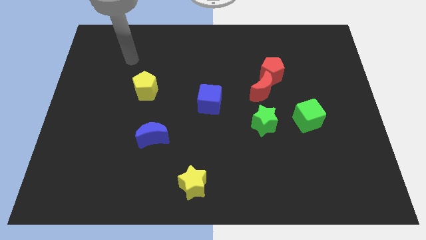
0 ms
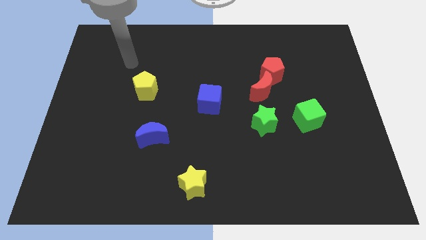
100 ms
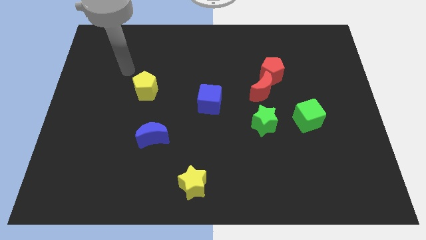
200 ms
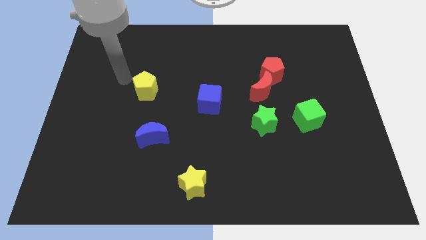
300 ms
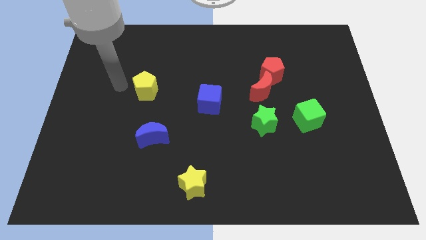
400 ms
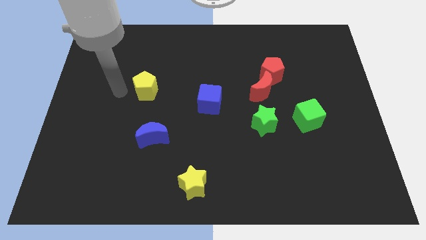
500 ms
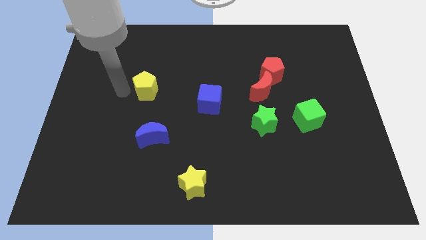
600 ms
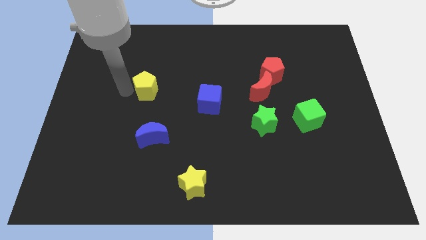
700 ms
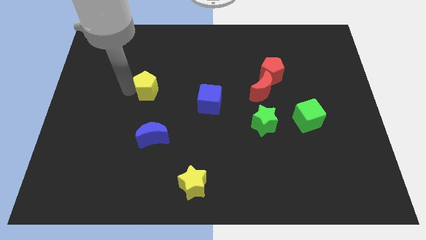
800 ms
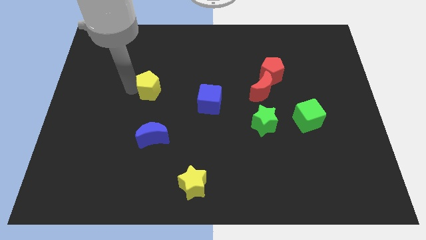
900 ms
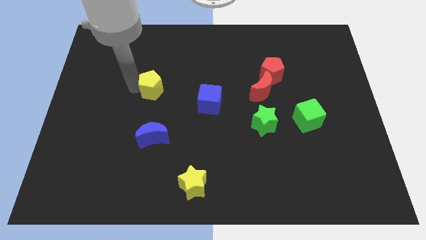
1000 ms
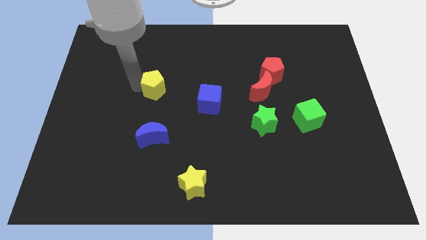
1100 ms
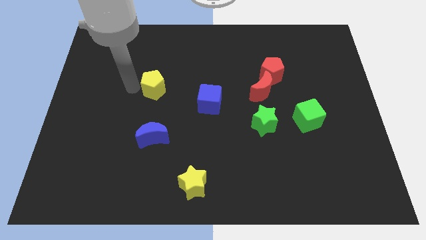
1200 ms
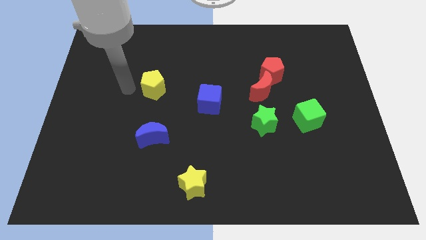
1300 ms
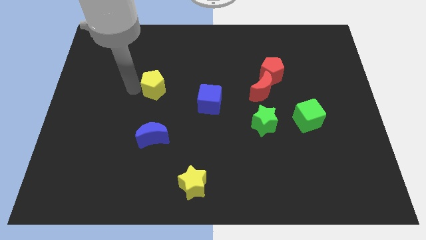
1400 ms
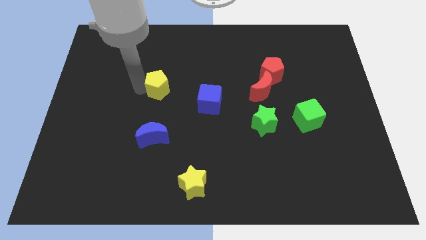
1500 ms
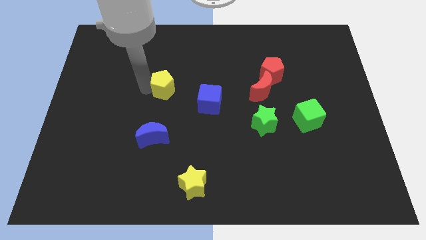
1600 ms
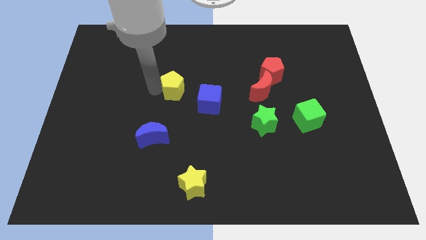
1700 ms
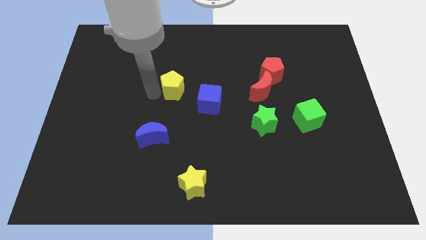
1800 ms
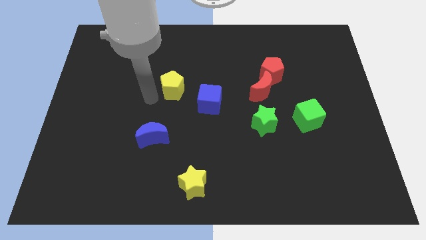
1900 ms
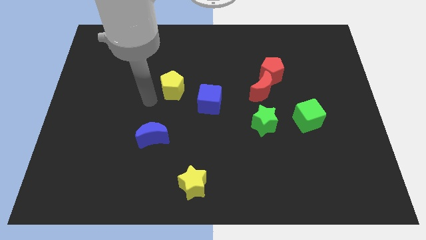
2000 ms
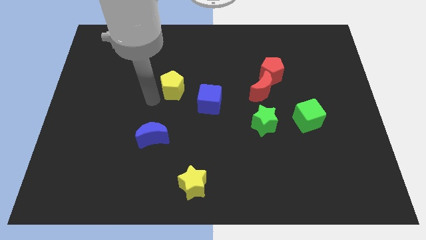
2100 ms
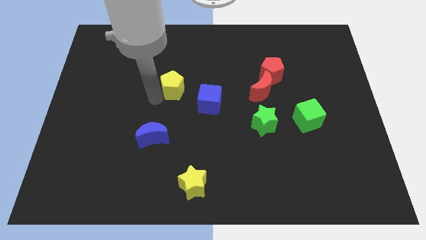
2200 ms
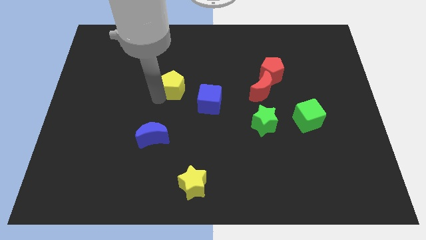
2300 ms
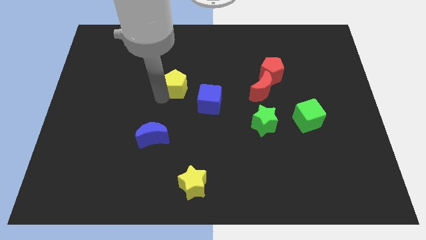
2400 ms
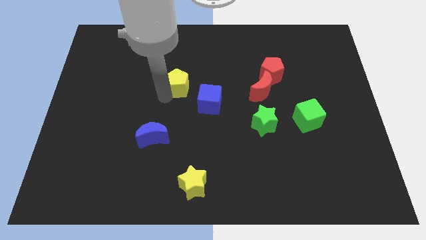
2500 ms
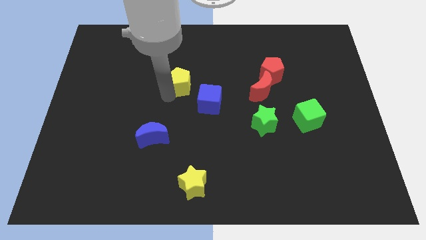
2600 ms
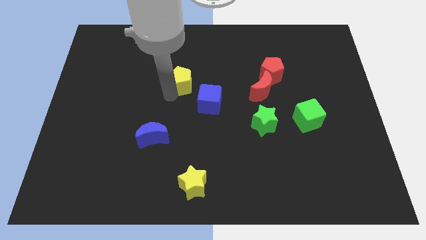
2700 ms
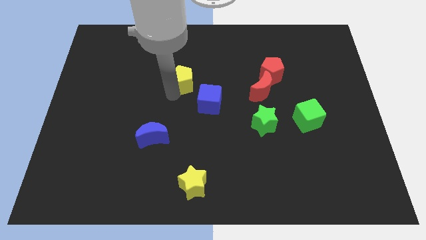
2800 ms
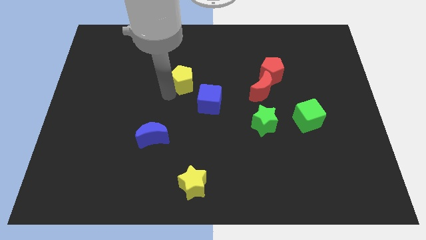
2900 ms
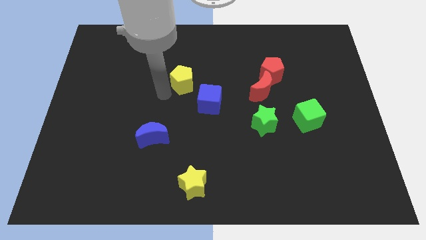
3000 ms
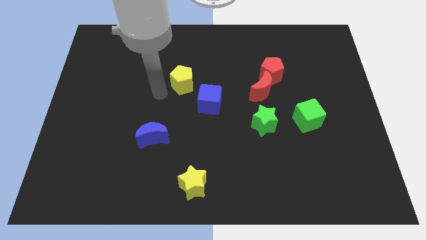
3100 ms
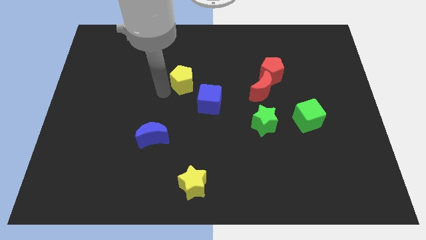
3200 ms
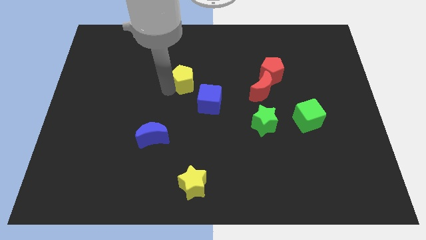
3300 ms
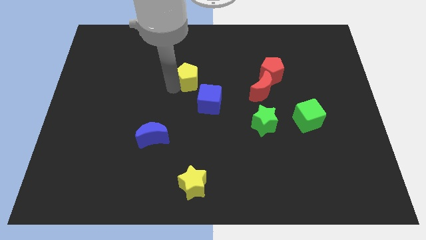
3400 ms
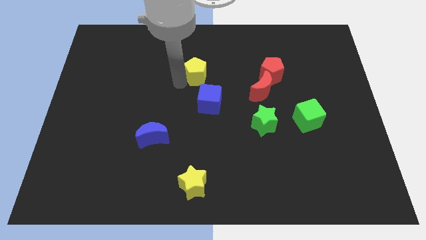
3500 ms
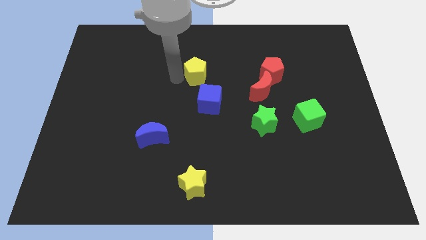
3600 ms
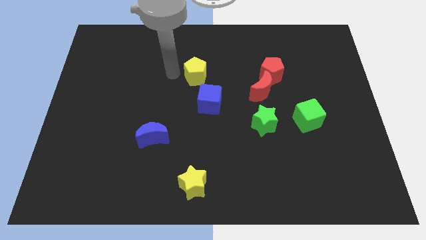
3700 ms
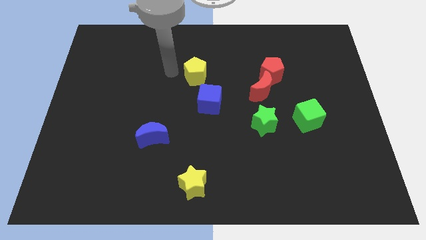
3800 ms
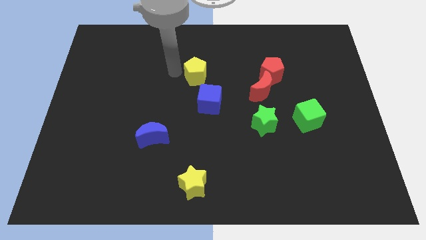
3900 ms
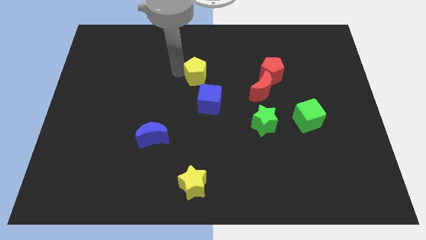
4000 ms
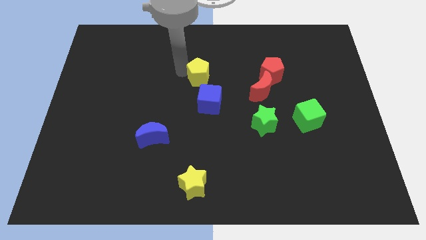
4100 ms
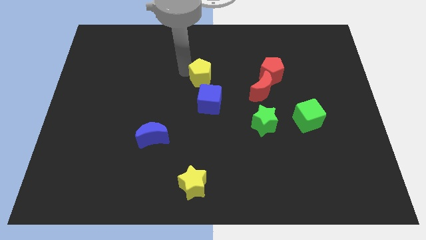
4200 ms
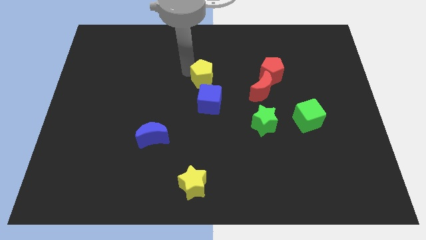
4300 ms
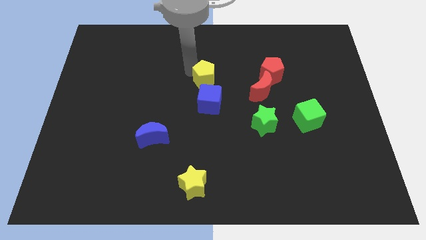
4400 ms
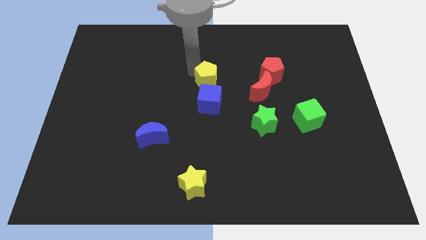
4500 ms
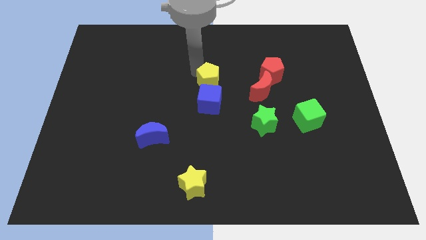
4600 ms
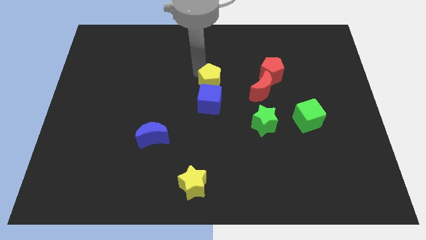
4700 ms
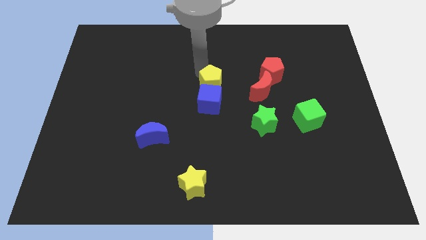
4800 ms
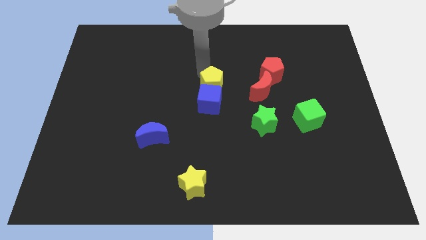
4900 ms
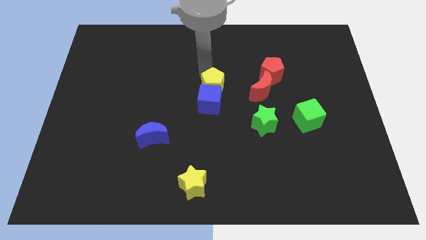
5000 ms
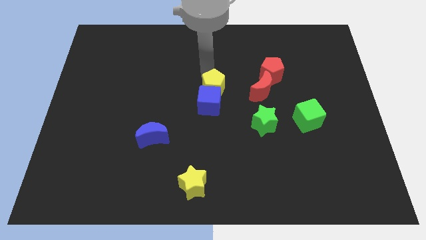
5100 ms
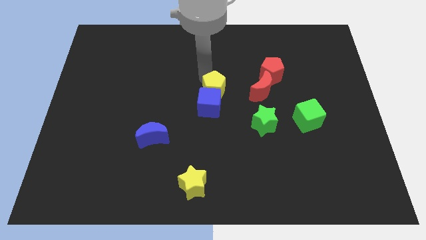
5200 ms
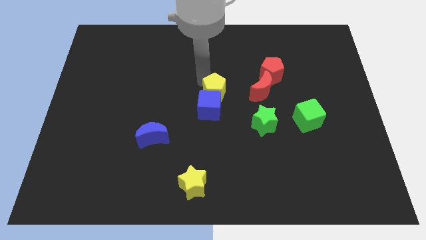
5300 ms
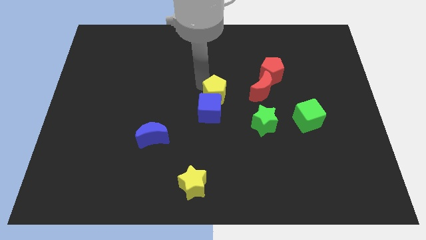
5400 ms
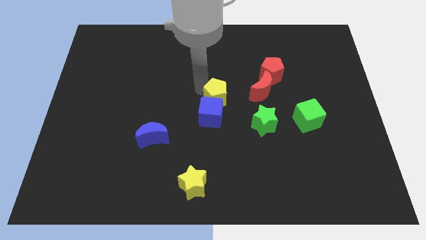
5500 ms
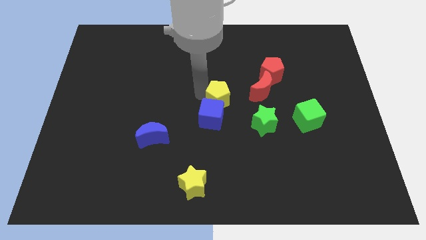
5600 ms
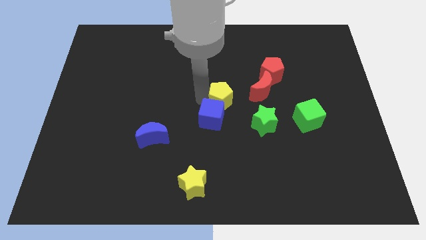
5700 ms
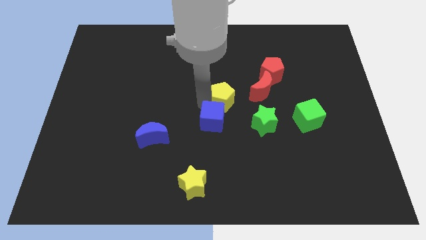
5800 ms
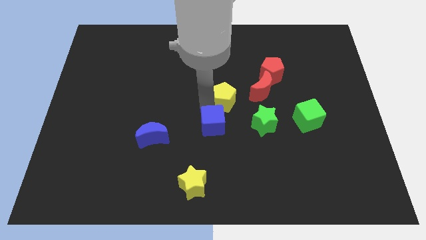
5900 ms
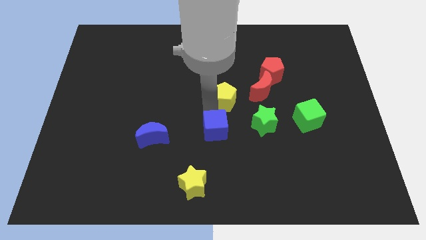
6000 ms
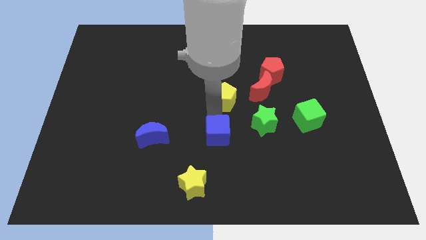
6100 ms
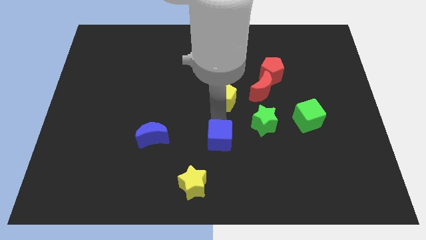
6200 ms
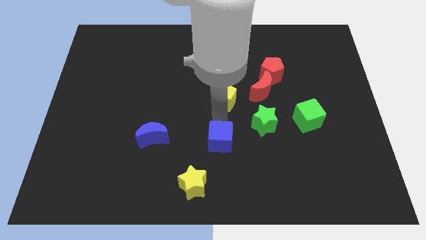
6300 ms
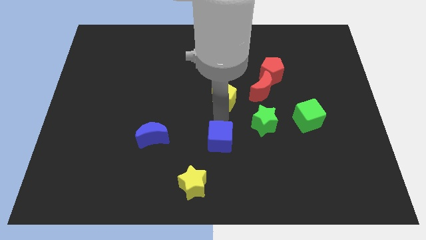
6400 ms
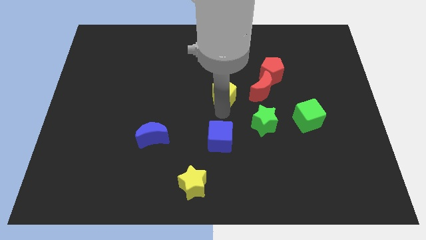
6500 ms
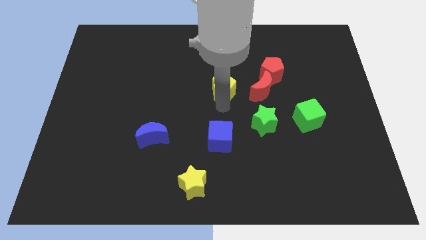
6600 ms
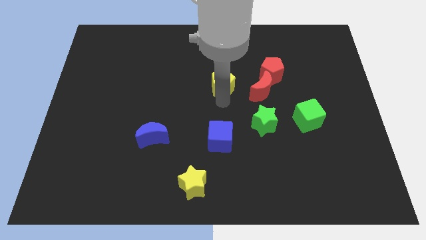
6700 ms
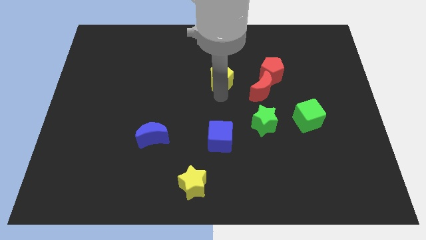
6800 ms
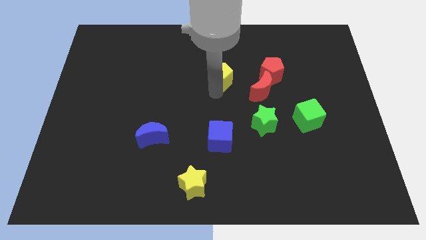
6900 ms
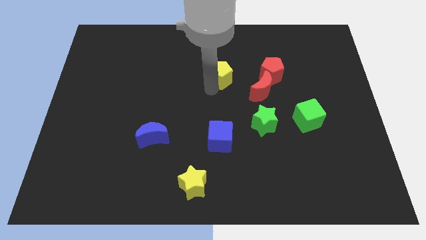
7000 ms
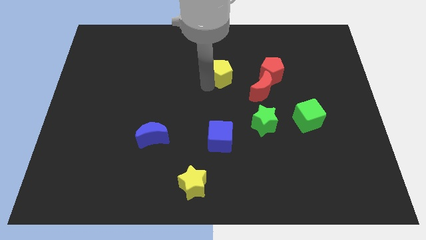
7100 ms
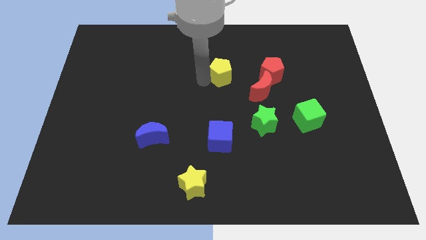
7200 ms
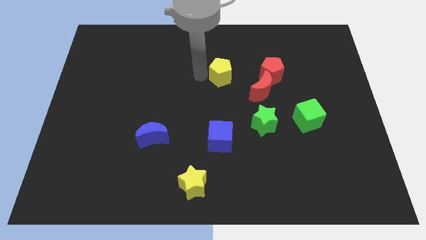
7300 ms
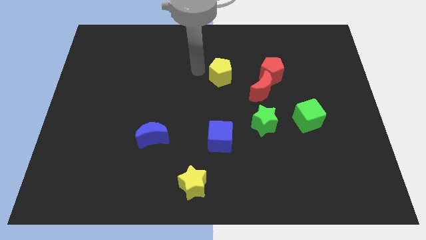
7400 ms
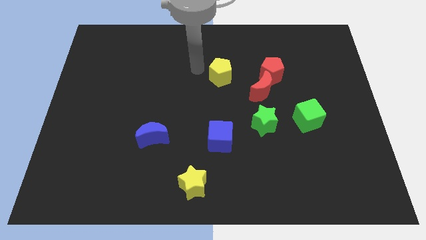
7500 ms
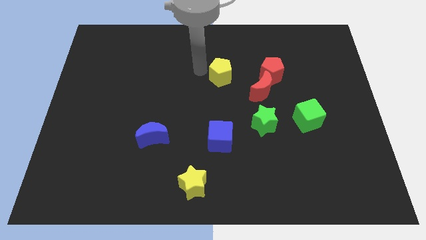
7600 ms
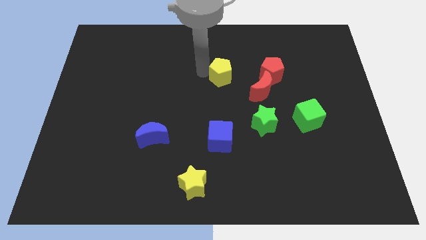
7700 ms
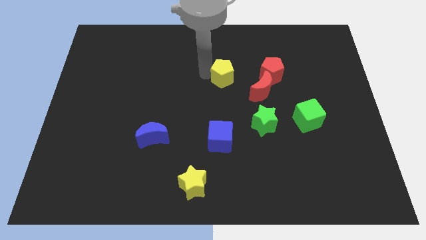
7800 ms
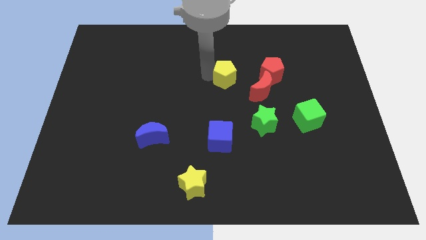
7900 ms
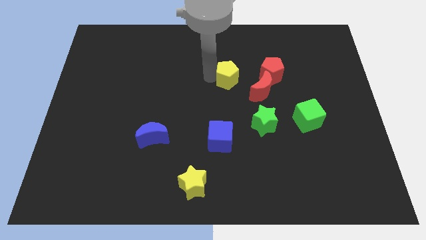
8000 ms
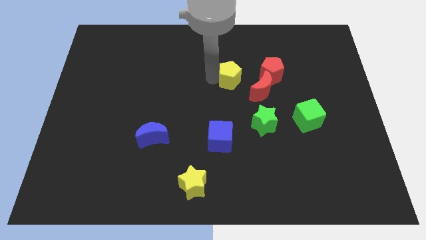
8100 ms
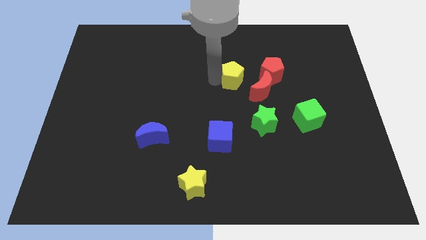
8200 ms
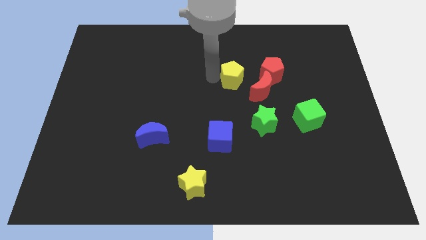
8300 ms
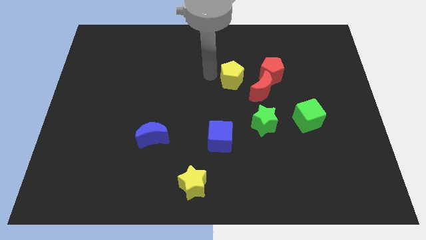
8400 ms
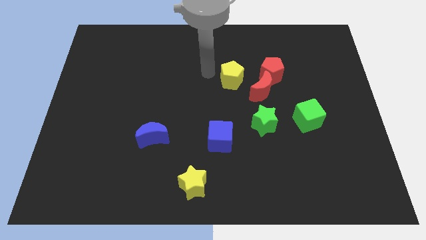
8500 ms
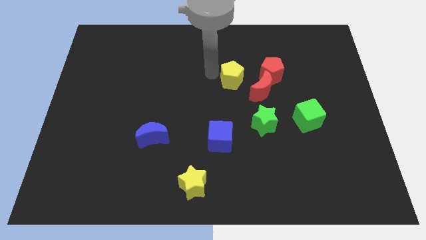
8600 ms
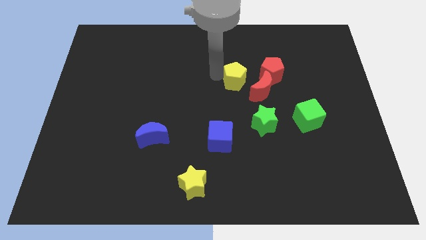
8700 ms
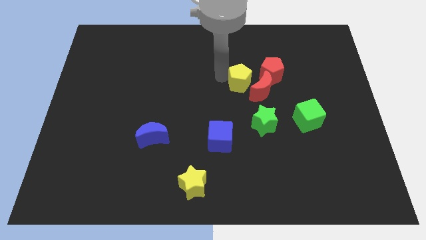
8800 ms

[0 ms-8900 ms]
slide the yellow pentagon to the red moon
